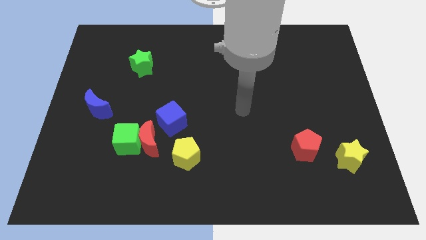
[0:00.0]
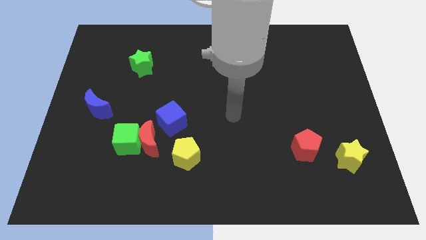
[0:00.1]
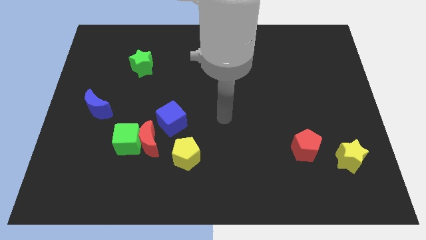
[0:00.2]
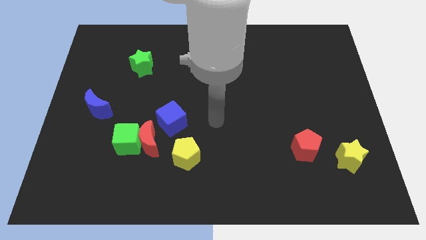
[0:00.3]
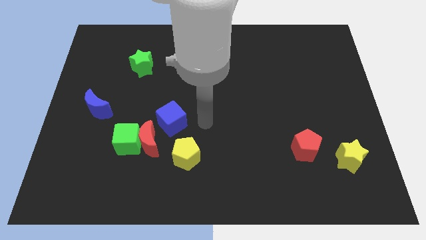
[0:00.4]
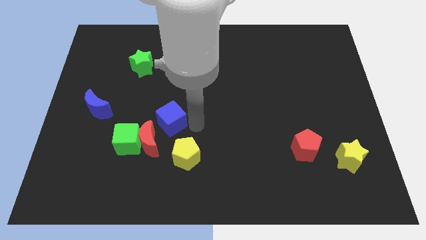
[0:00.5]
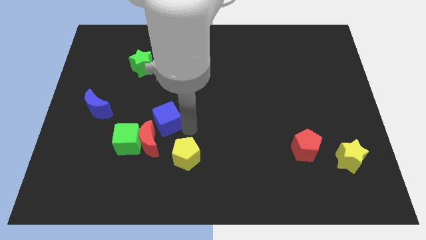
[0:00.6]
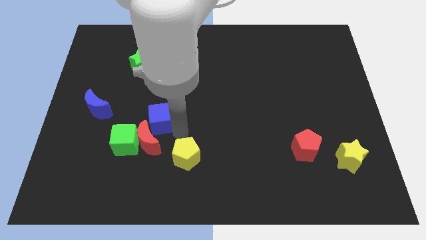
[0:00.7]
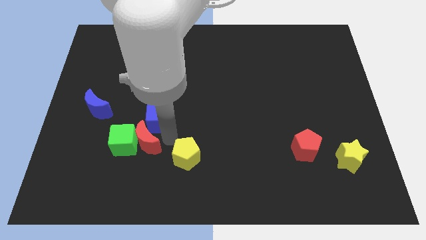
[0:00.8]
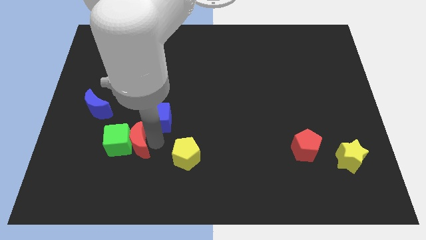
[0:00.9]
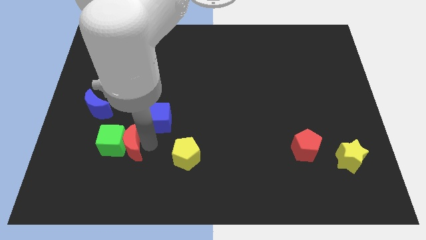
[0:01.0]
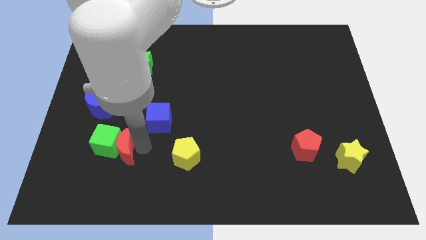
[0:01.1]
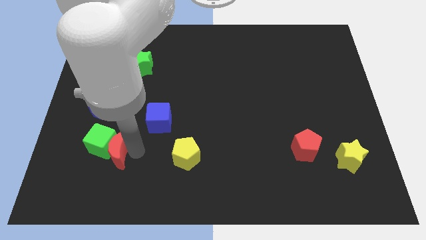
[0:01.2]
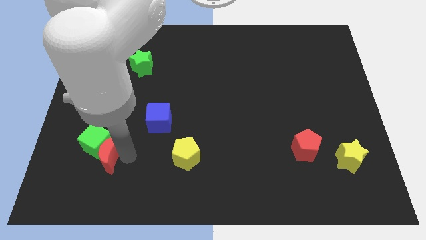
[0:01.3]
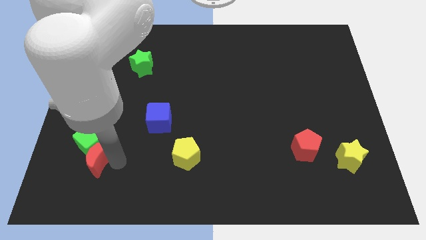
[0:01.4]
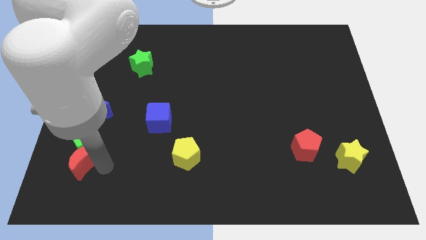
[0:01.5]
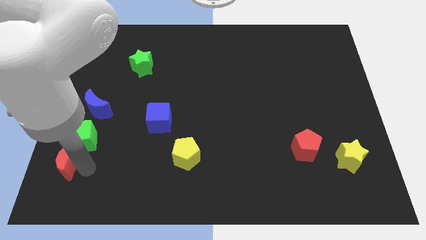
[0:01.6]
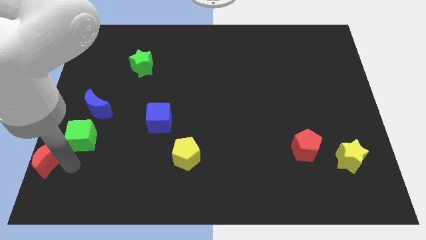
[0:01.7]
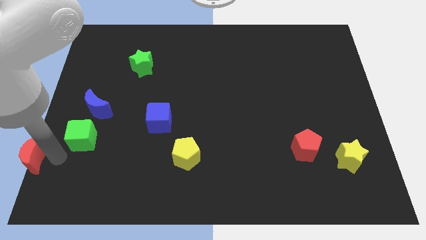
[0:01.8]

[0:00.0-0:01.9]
separate the green cube from the red moon

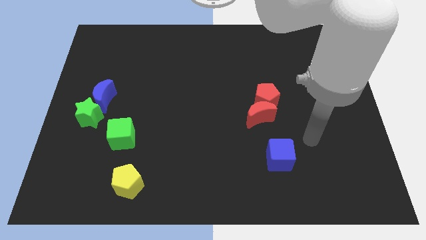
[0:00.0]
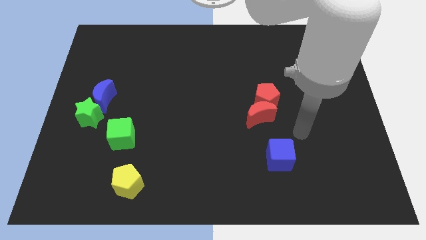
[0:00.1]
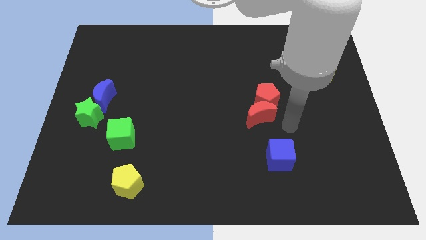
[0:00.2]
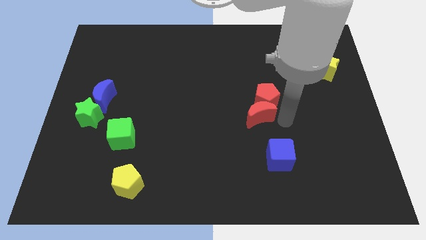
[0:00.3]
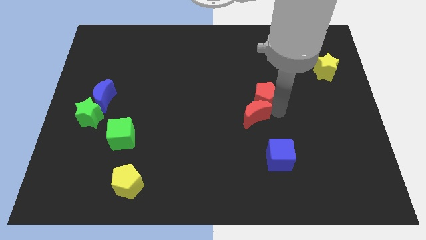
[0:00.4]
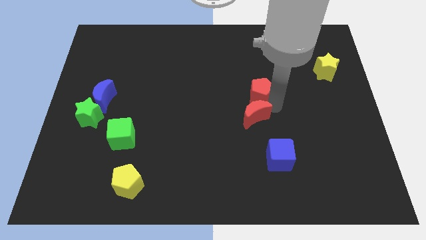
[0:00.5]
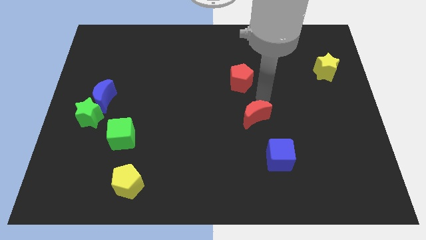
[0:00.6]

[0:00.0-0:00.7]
move the red moon away from the red pentagon

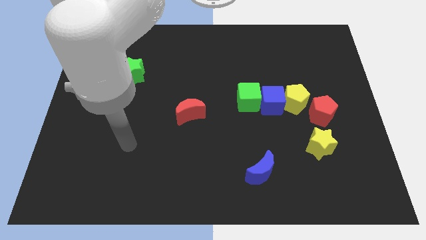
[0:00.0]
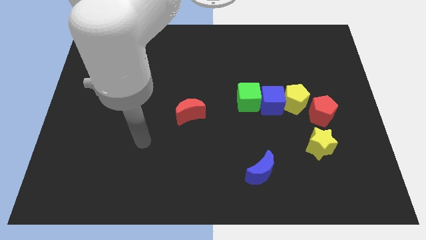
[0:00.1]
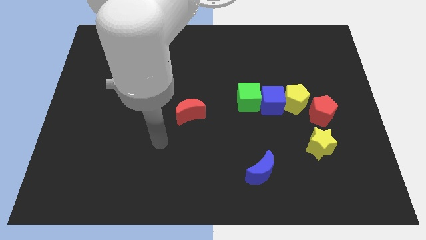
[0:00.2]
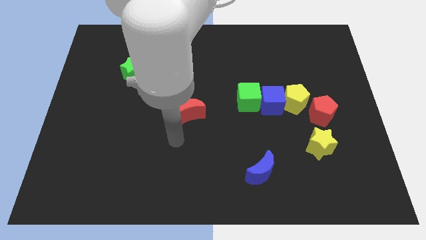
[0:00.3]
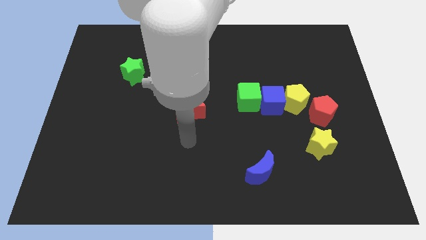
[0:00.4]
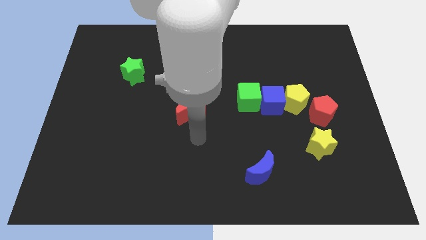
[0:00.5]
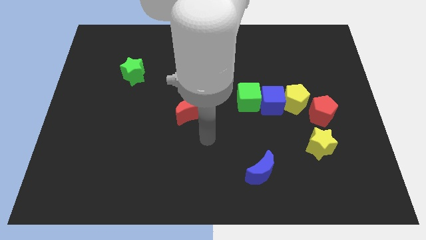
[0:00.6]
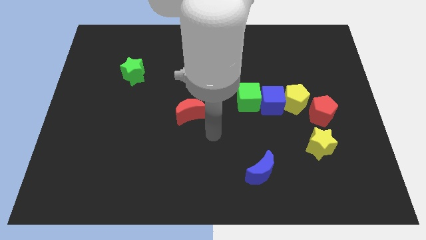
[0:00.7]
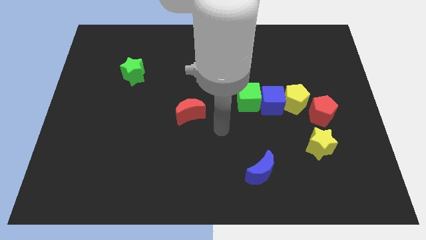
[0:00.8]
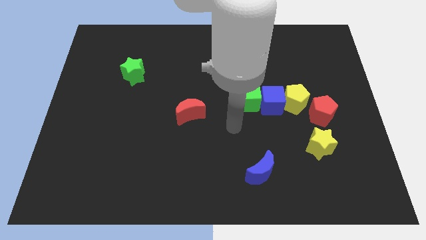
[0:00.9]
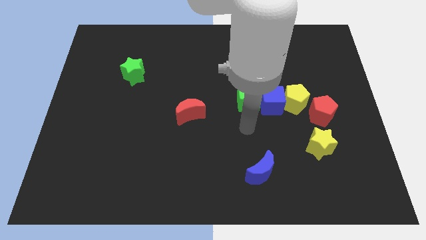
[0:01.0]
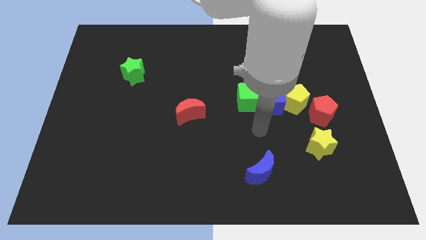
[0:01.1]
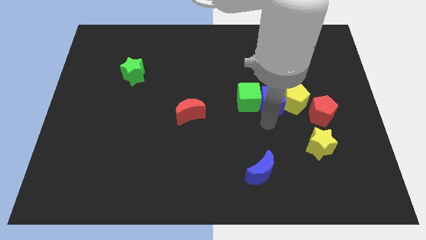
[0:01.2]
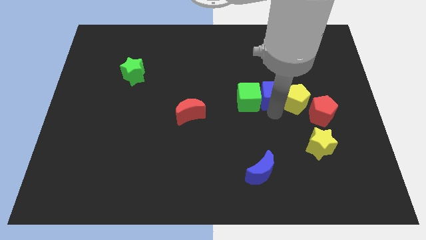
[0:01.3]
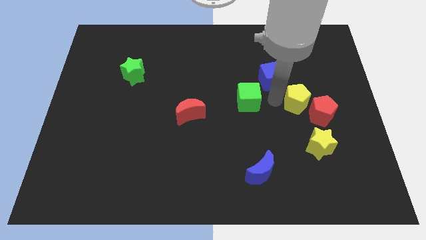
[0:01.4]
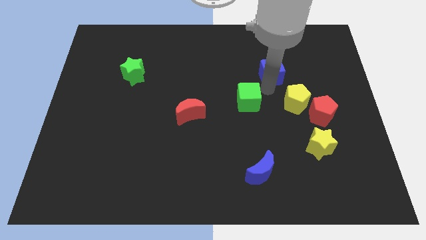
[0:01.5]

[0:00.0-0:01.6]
separate the green cube from the blue cube

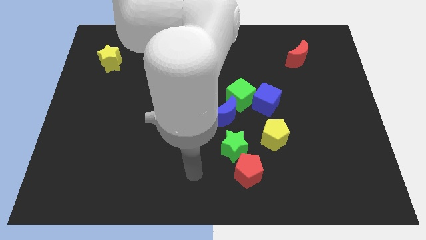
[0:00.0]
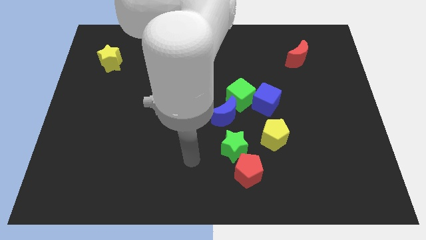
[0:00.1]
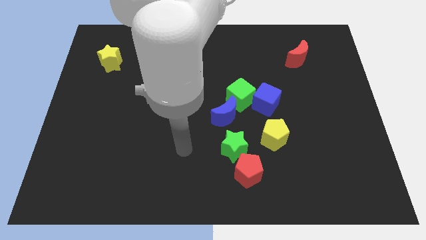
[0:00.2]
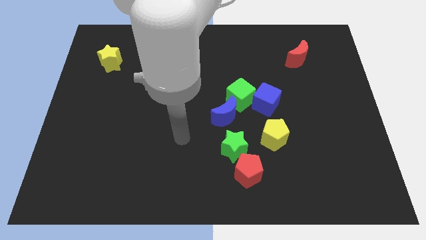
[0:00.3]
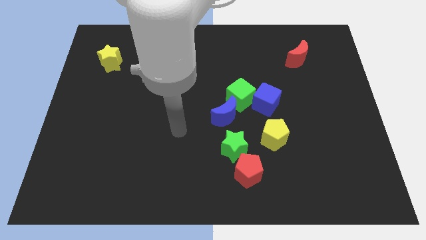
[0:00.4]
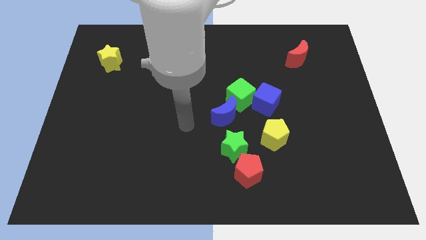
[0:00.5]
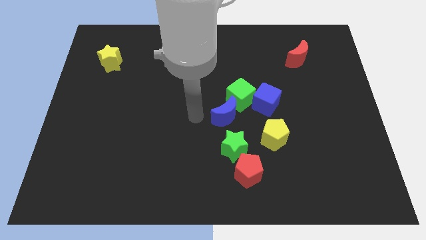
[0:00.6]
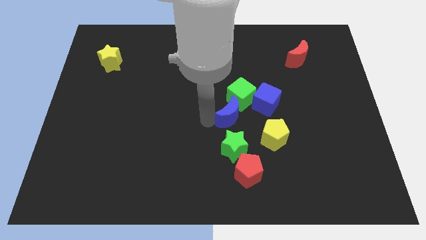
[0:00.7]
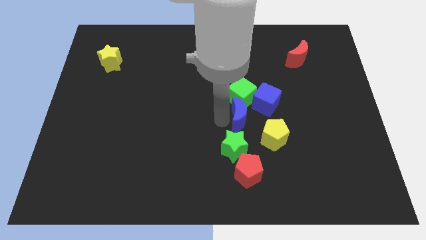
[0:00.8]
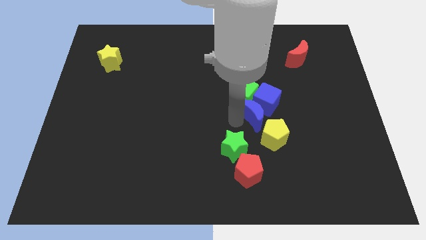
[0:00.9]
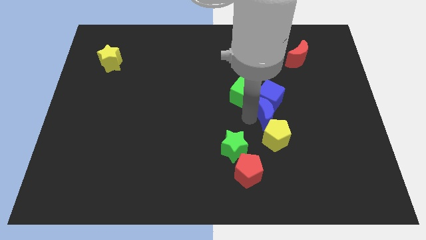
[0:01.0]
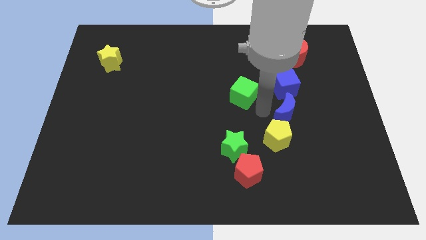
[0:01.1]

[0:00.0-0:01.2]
separate the green cube from the blue cube and blue moon

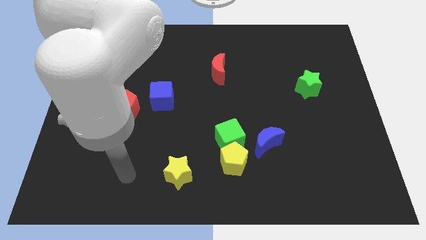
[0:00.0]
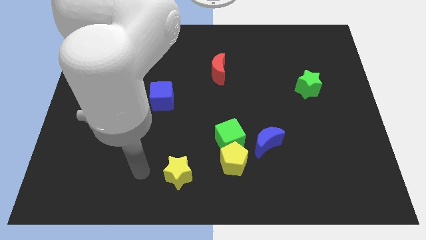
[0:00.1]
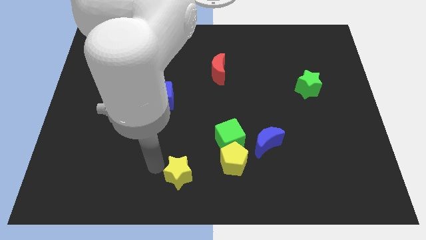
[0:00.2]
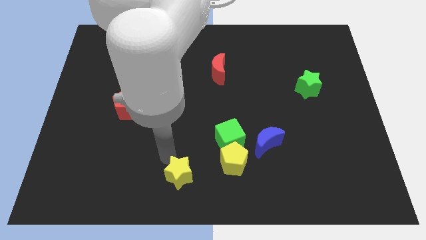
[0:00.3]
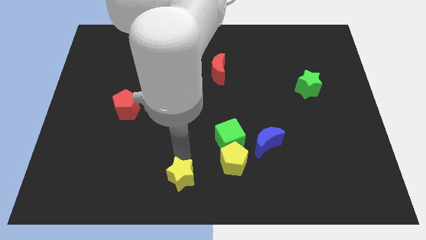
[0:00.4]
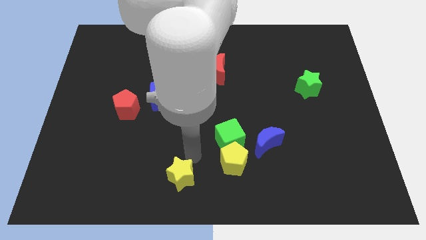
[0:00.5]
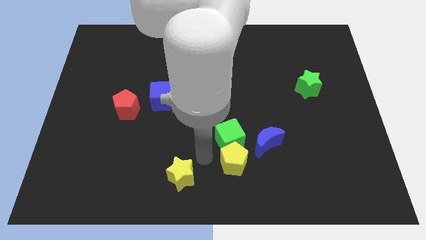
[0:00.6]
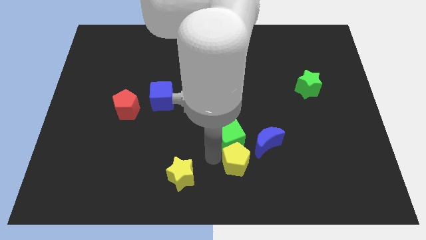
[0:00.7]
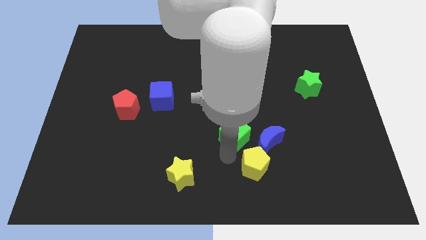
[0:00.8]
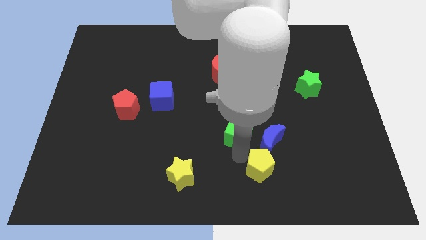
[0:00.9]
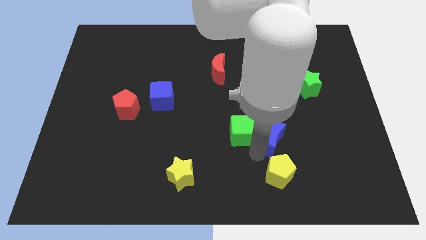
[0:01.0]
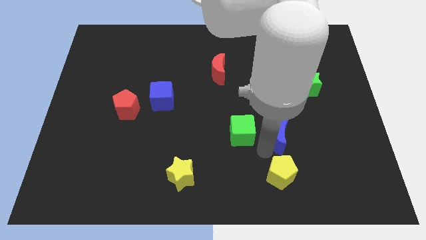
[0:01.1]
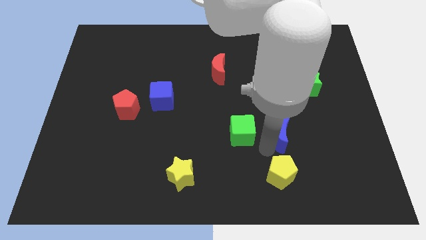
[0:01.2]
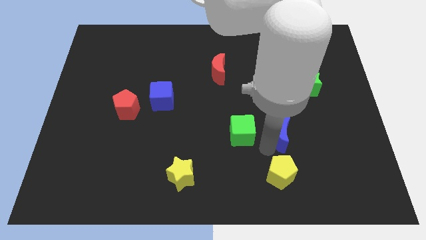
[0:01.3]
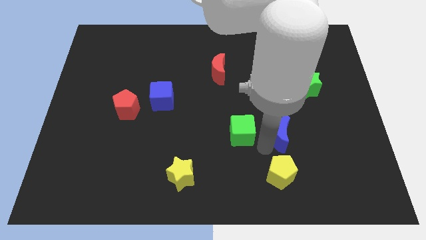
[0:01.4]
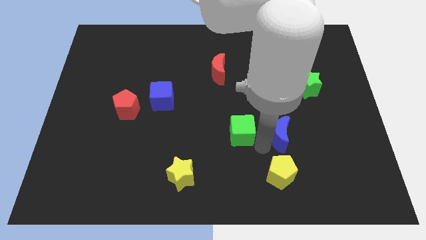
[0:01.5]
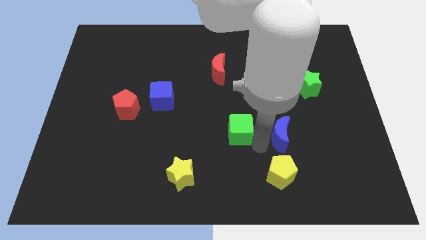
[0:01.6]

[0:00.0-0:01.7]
move the green cube away from the yellow pentagon and blue moon

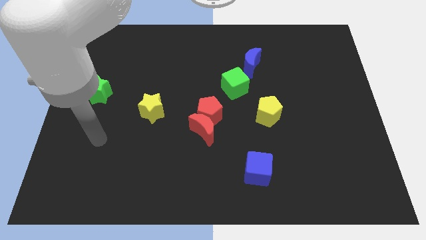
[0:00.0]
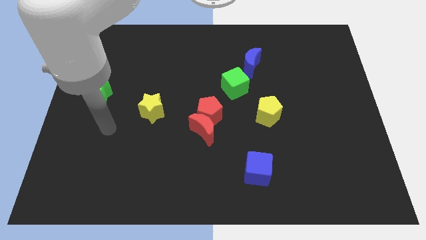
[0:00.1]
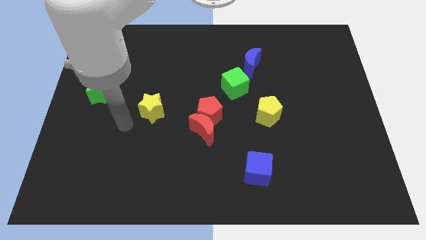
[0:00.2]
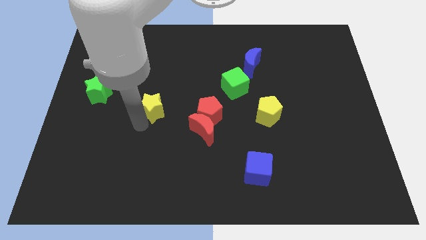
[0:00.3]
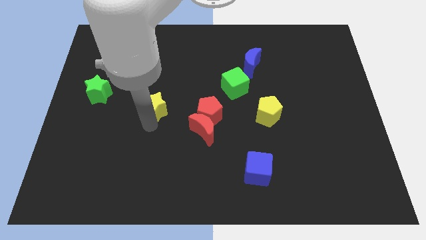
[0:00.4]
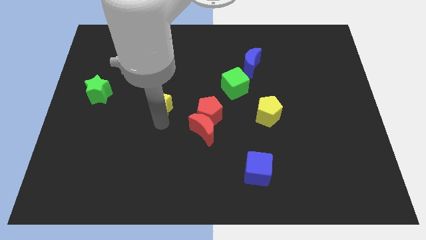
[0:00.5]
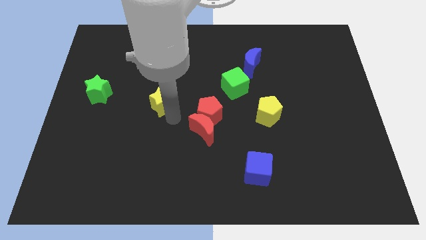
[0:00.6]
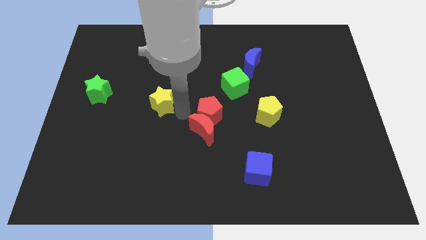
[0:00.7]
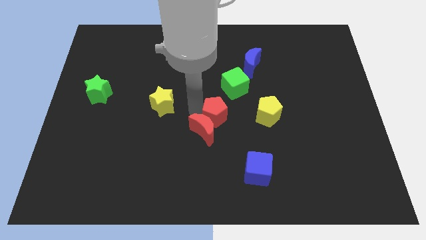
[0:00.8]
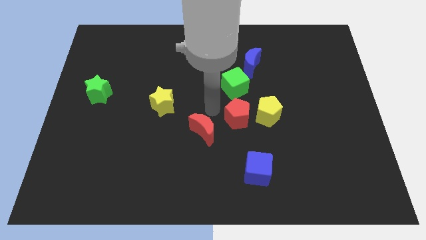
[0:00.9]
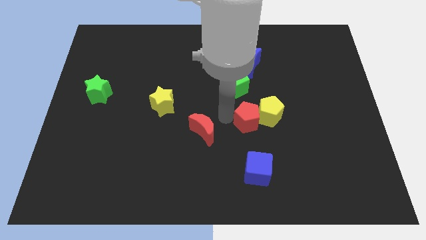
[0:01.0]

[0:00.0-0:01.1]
separate the red moon from the red pentagon

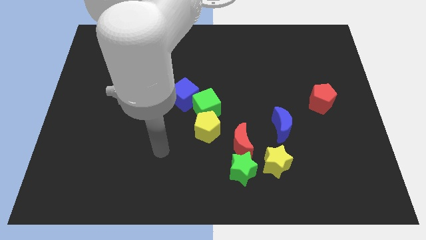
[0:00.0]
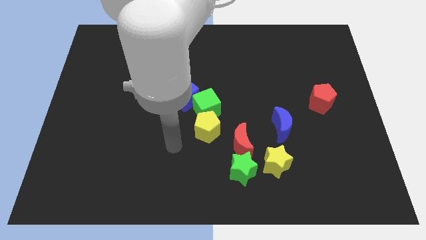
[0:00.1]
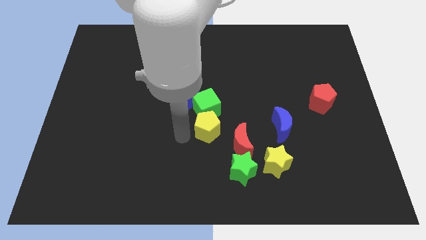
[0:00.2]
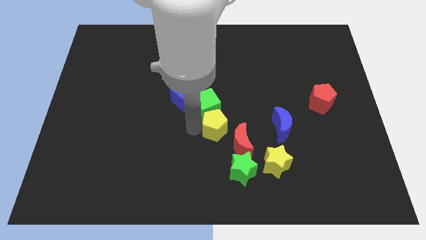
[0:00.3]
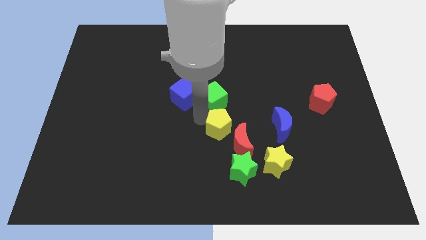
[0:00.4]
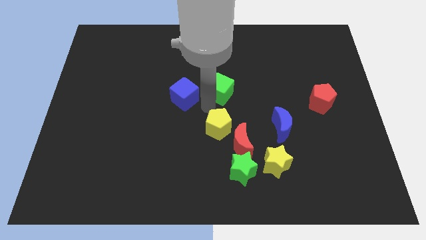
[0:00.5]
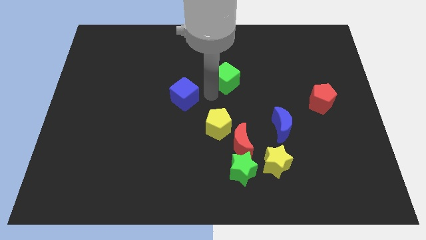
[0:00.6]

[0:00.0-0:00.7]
move the blue cube away from the green cube

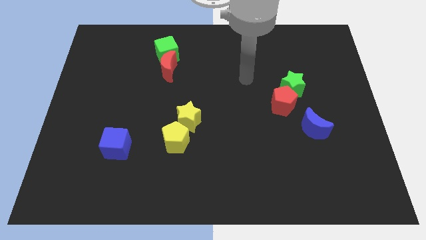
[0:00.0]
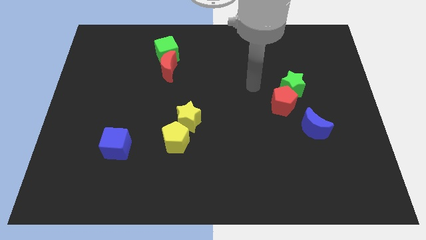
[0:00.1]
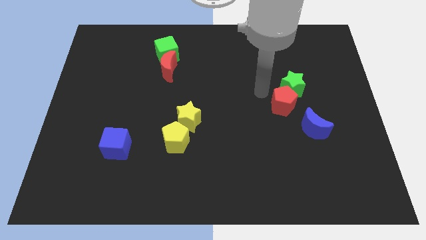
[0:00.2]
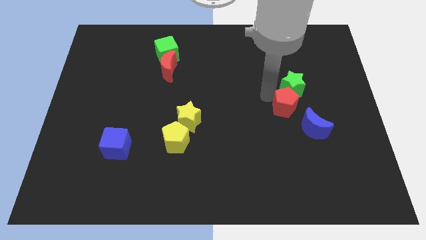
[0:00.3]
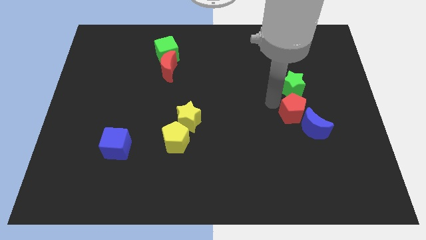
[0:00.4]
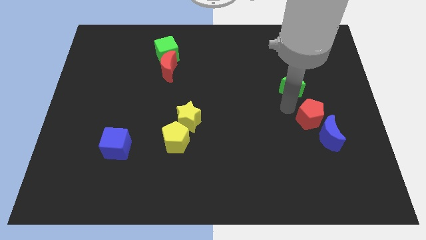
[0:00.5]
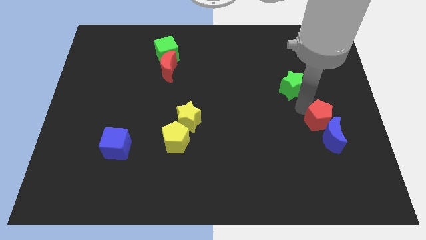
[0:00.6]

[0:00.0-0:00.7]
move the green star away from the red pentagon
